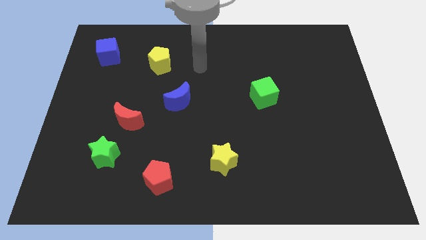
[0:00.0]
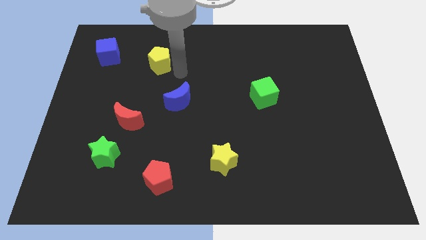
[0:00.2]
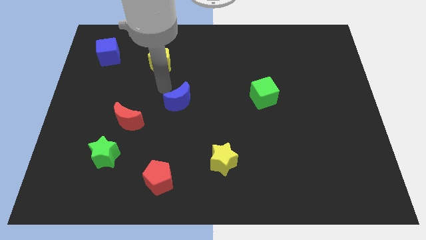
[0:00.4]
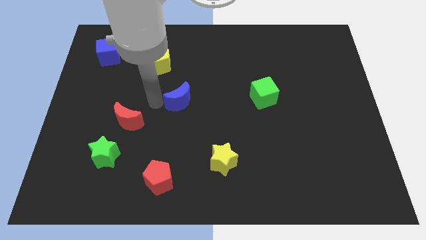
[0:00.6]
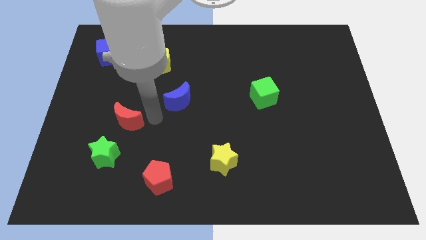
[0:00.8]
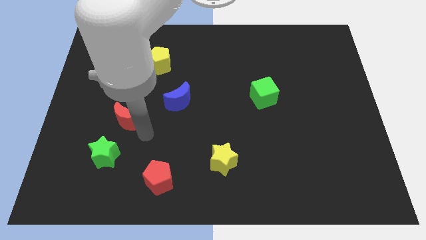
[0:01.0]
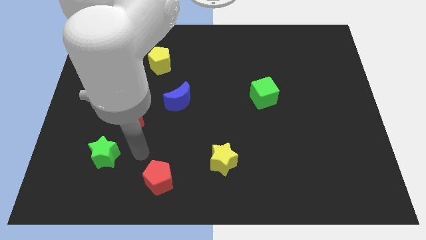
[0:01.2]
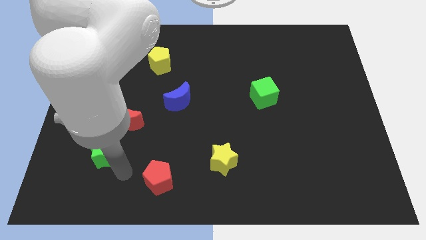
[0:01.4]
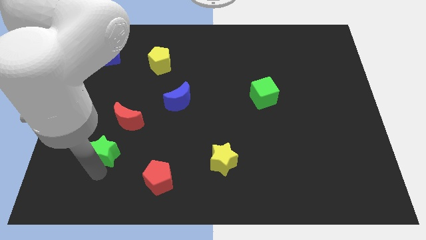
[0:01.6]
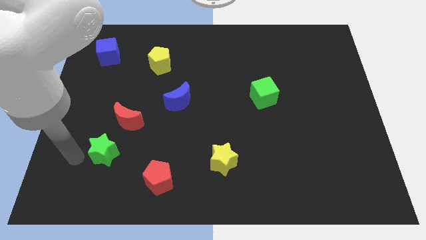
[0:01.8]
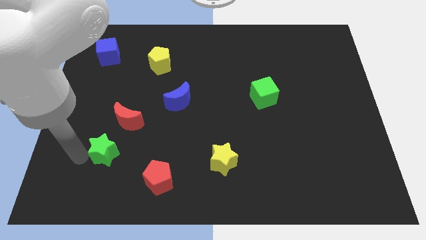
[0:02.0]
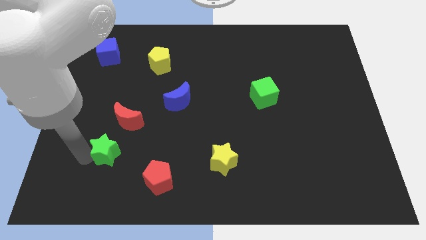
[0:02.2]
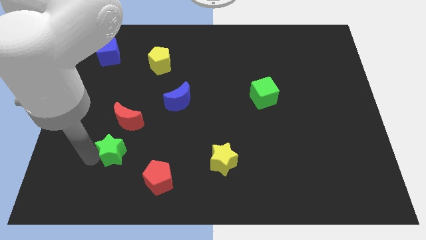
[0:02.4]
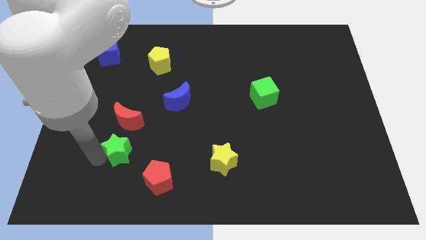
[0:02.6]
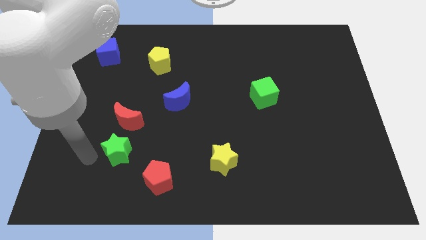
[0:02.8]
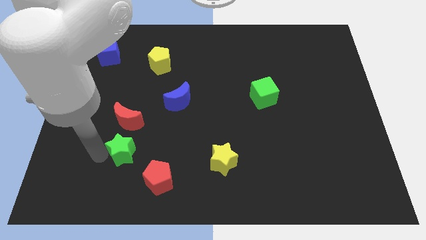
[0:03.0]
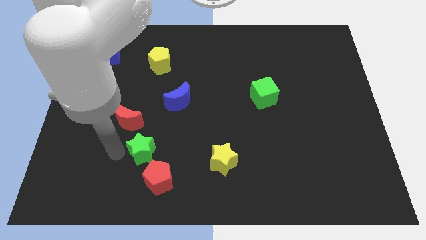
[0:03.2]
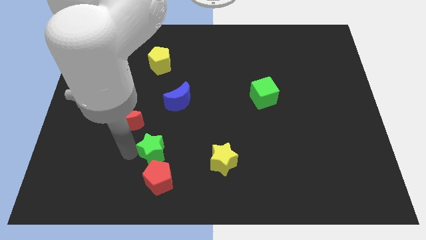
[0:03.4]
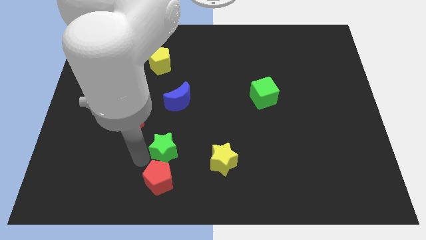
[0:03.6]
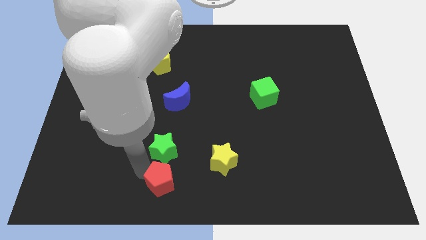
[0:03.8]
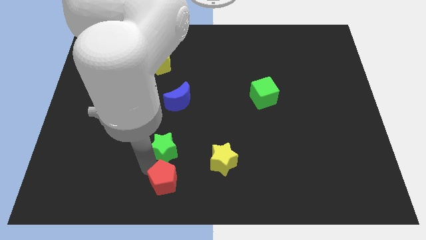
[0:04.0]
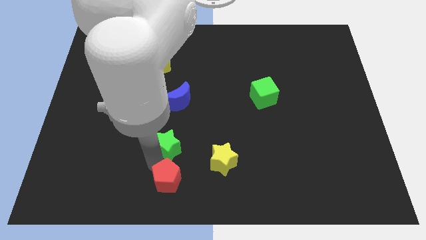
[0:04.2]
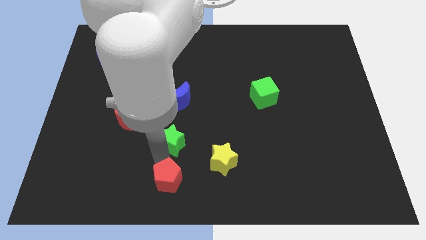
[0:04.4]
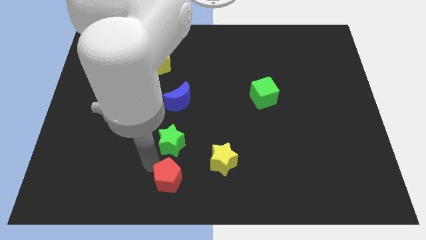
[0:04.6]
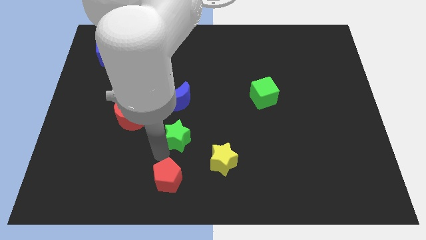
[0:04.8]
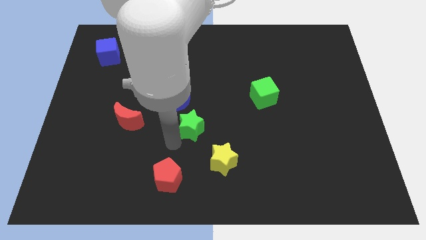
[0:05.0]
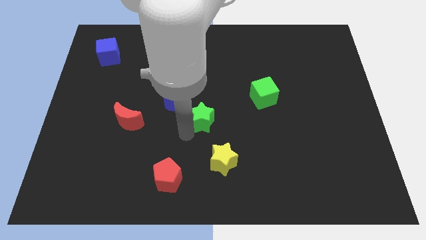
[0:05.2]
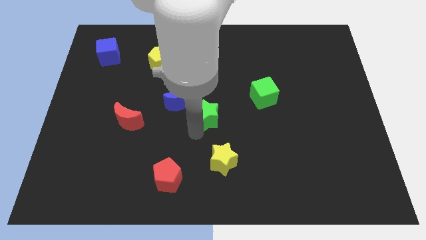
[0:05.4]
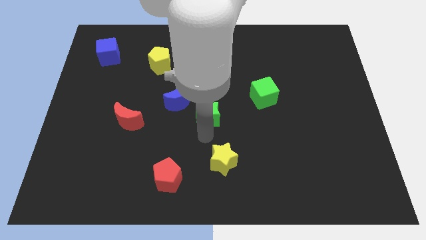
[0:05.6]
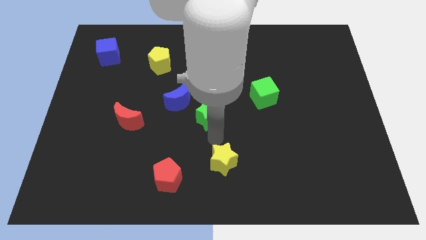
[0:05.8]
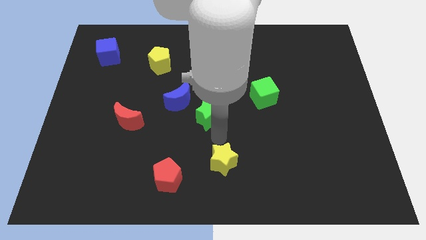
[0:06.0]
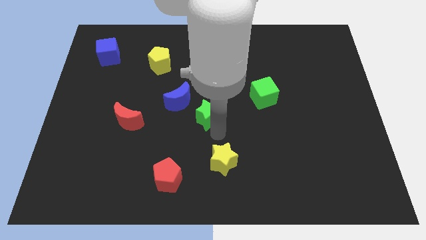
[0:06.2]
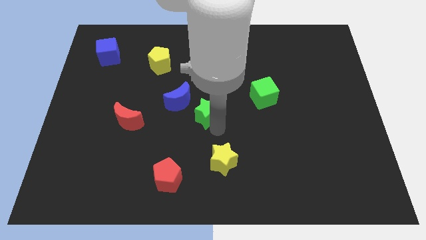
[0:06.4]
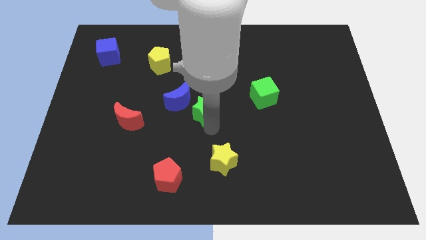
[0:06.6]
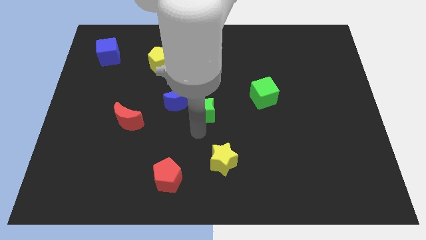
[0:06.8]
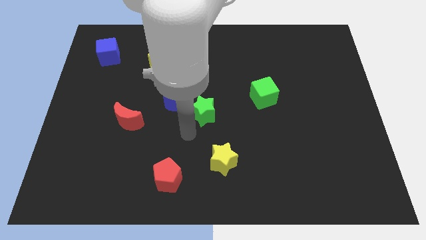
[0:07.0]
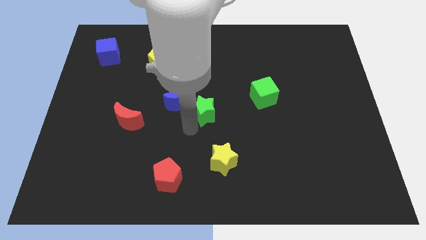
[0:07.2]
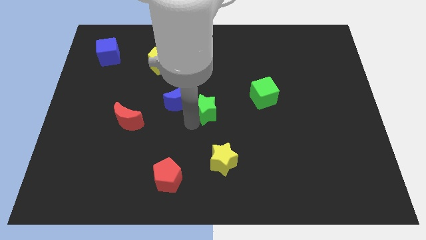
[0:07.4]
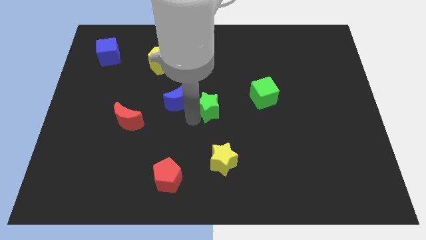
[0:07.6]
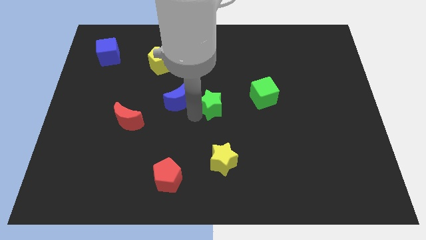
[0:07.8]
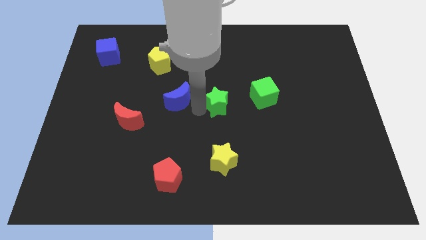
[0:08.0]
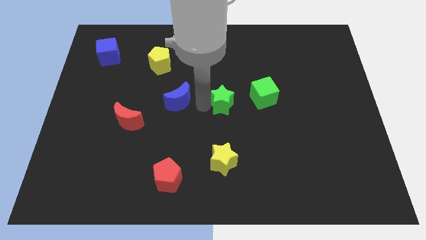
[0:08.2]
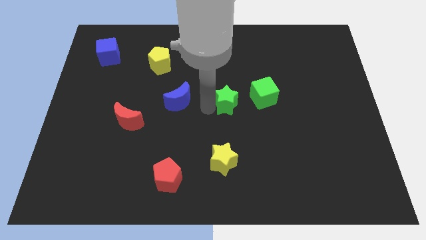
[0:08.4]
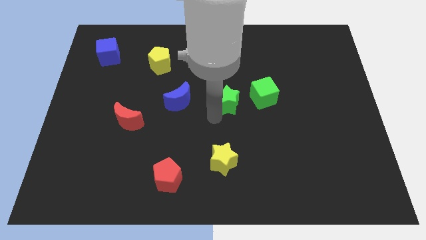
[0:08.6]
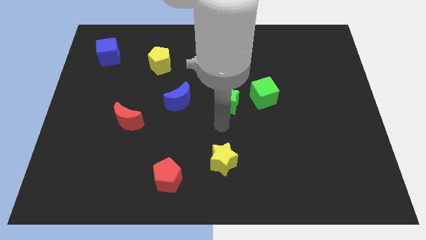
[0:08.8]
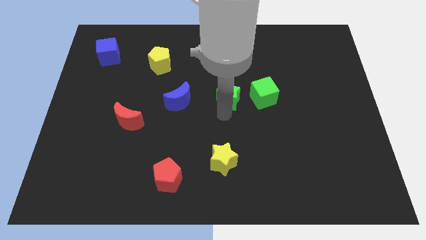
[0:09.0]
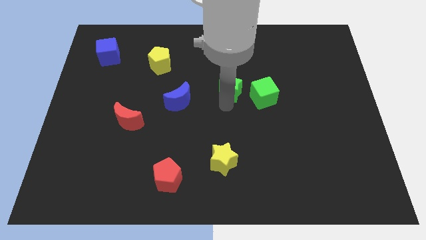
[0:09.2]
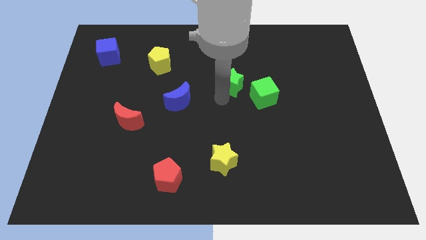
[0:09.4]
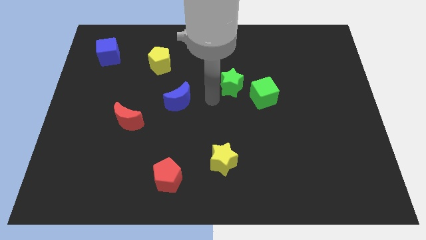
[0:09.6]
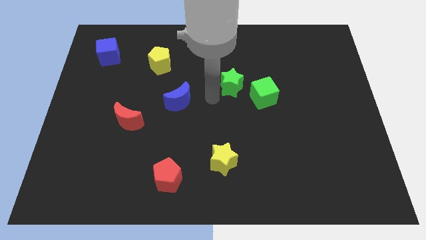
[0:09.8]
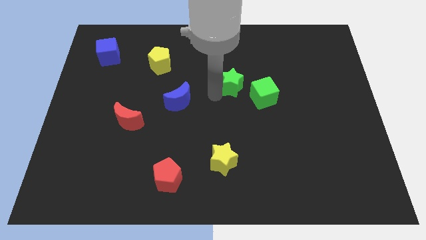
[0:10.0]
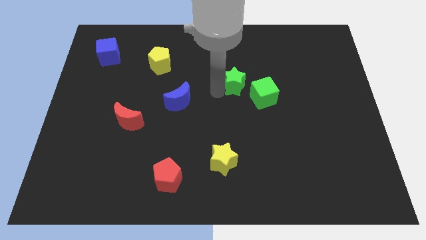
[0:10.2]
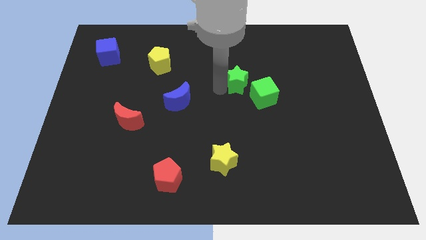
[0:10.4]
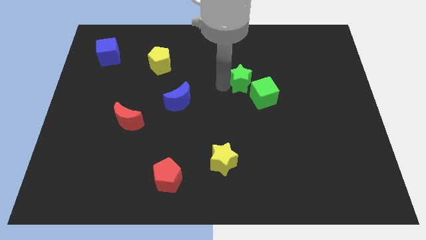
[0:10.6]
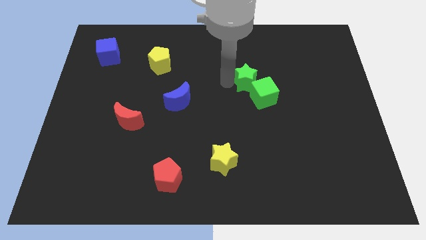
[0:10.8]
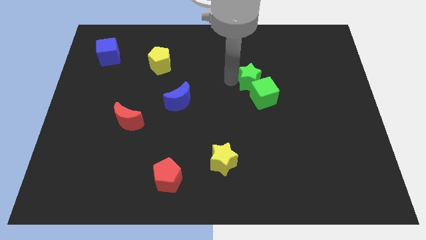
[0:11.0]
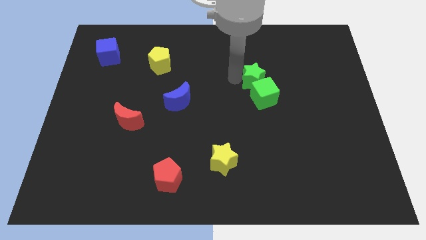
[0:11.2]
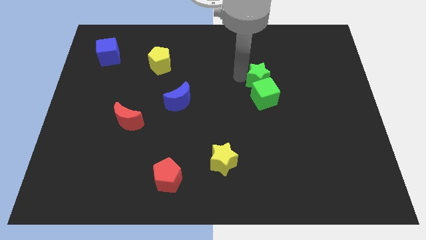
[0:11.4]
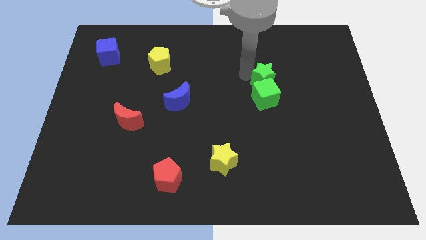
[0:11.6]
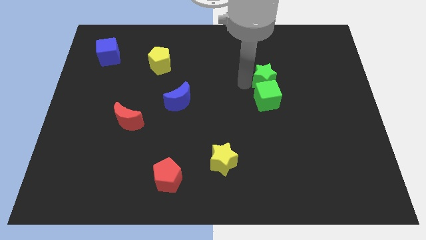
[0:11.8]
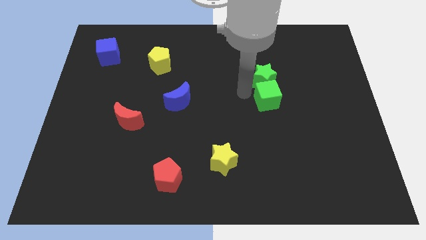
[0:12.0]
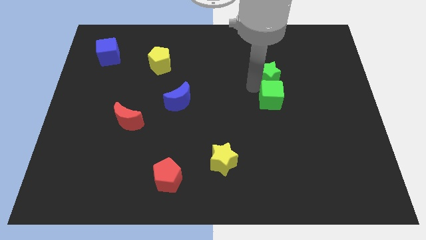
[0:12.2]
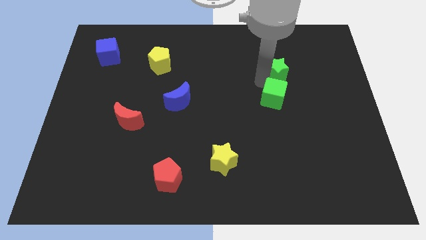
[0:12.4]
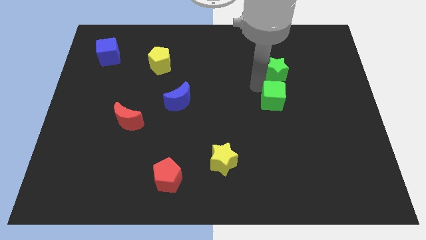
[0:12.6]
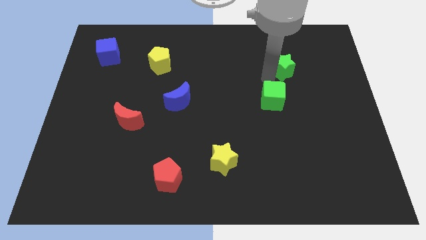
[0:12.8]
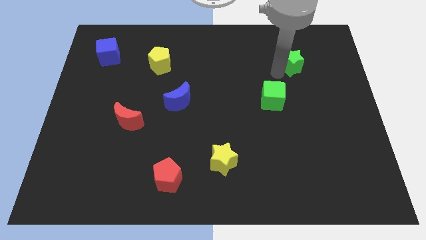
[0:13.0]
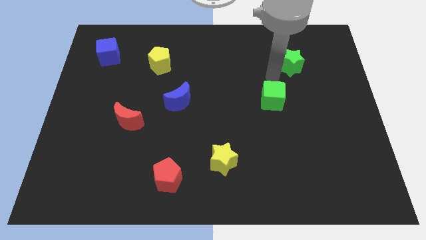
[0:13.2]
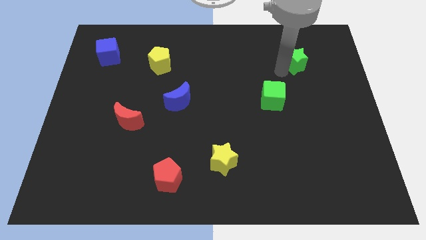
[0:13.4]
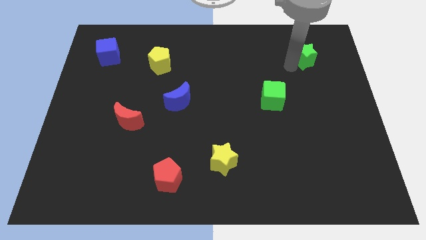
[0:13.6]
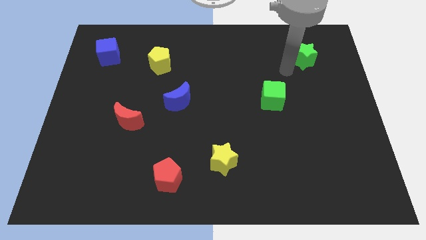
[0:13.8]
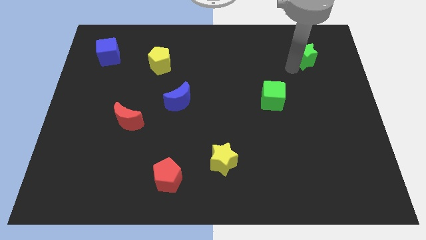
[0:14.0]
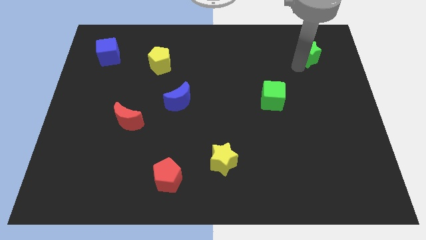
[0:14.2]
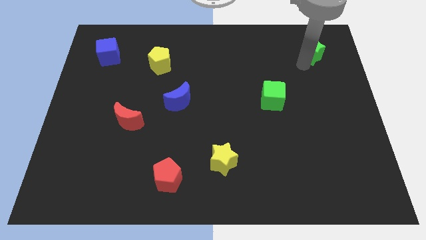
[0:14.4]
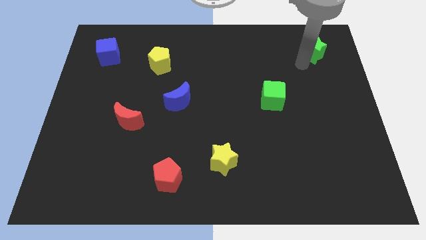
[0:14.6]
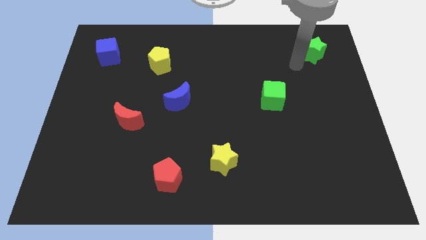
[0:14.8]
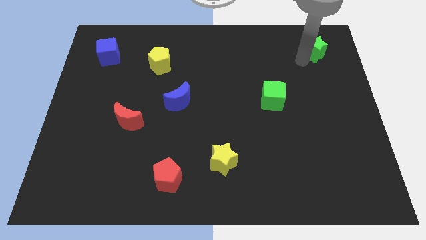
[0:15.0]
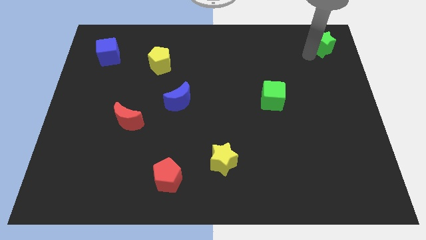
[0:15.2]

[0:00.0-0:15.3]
put the green star to the top right corner
